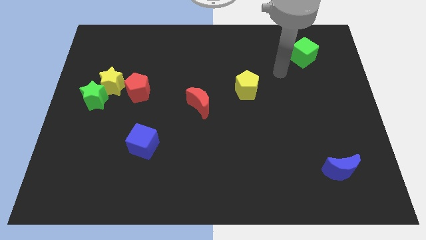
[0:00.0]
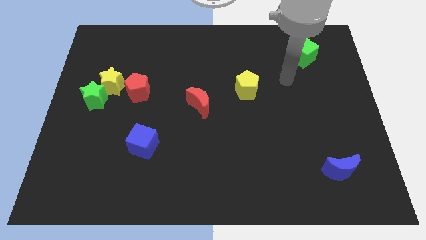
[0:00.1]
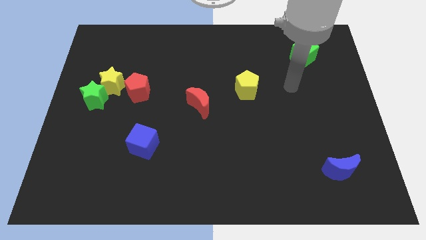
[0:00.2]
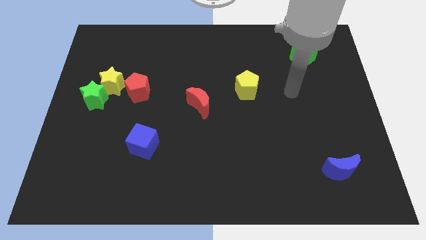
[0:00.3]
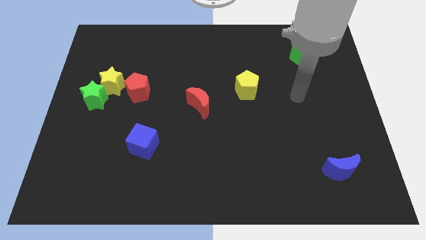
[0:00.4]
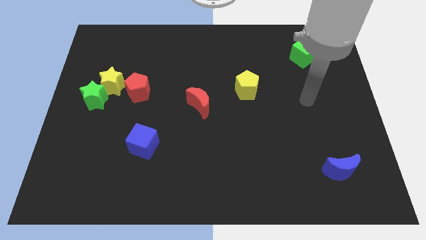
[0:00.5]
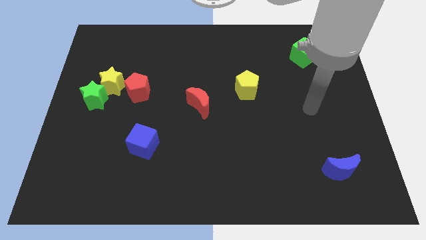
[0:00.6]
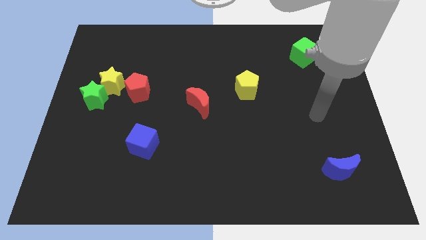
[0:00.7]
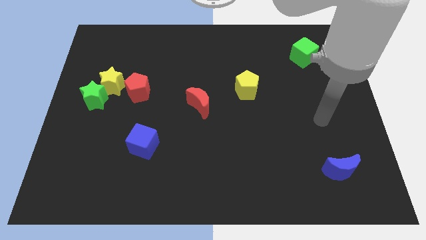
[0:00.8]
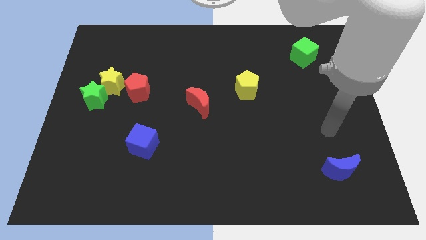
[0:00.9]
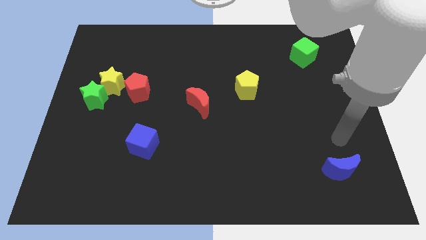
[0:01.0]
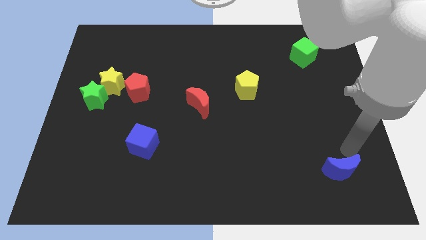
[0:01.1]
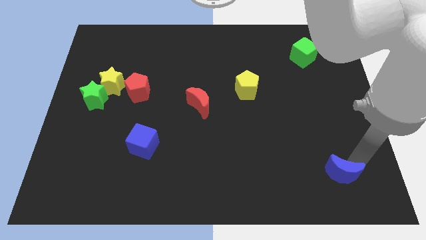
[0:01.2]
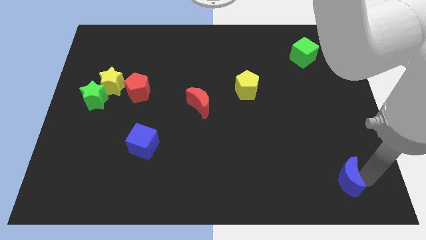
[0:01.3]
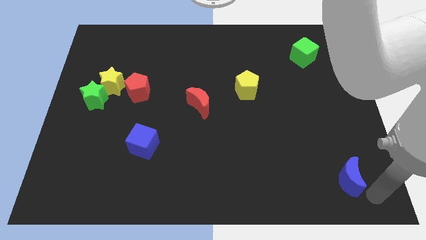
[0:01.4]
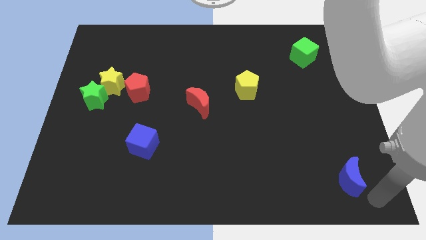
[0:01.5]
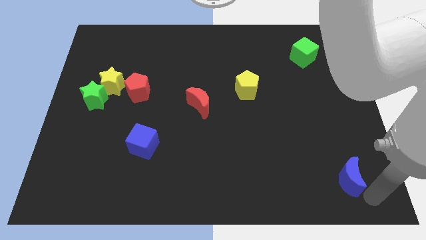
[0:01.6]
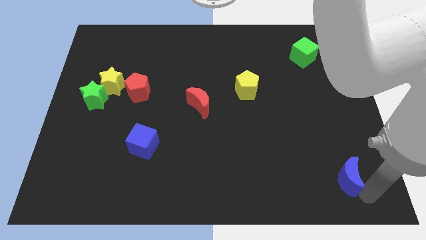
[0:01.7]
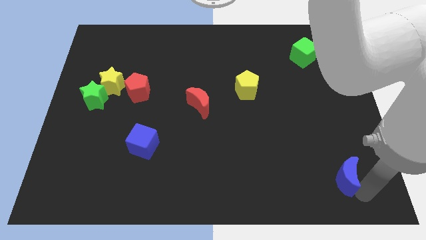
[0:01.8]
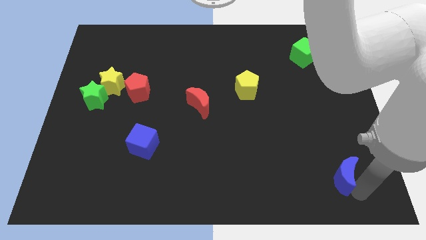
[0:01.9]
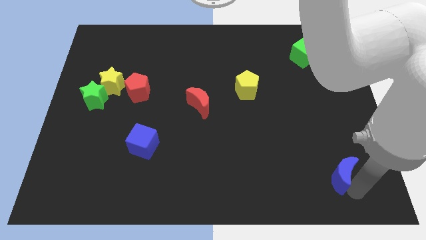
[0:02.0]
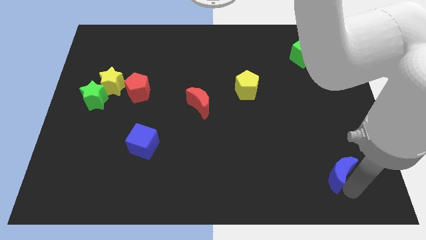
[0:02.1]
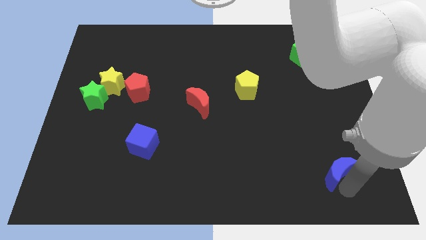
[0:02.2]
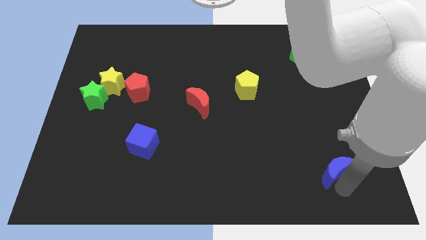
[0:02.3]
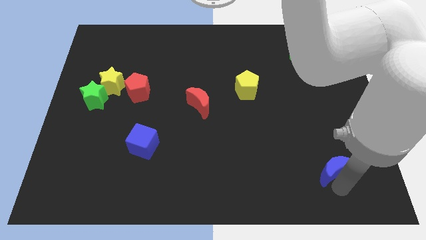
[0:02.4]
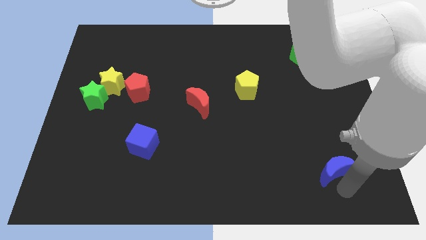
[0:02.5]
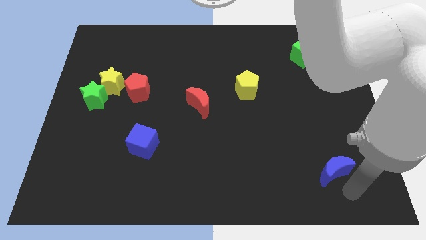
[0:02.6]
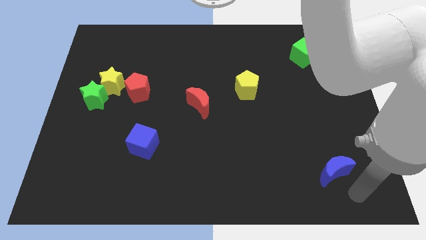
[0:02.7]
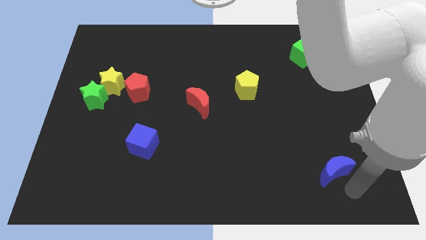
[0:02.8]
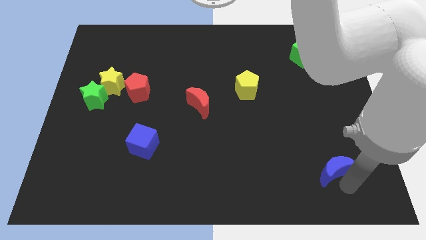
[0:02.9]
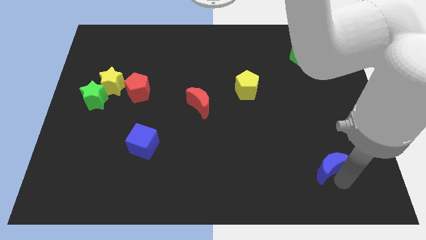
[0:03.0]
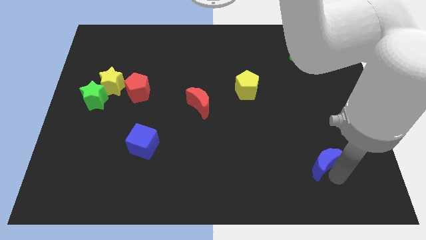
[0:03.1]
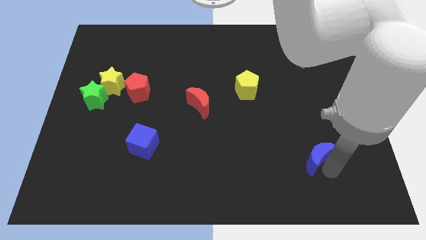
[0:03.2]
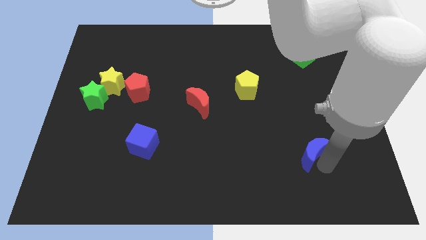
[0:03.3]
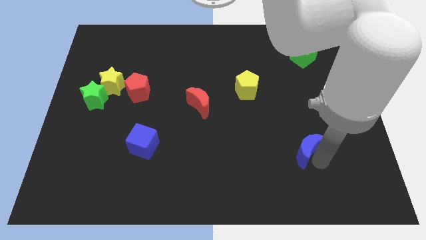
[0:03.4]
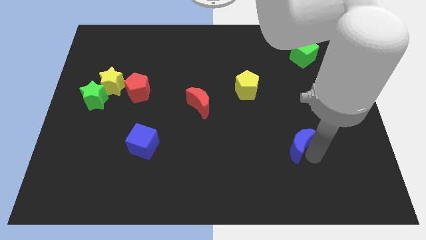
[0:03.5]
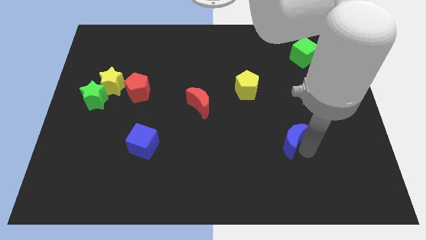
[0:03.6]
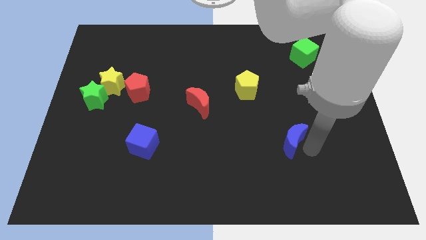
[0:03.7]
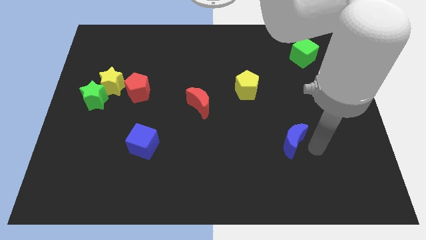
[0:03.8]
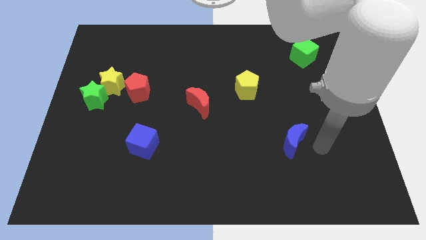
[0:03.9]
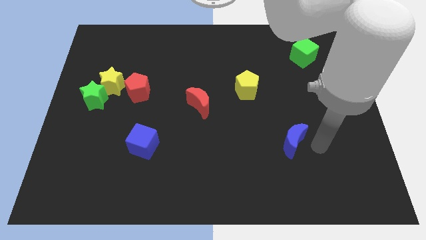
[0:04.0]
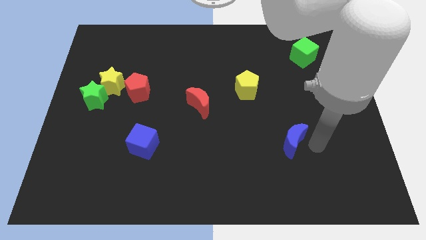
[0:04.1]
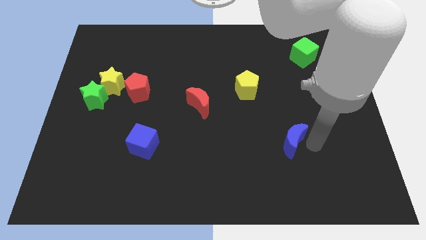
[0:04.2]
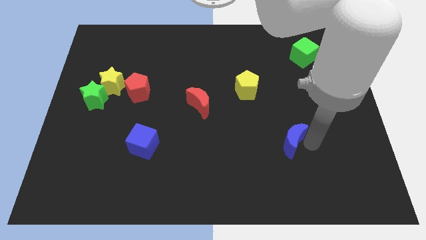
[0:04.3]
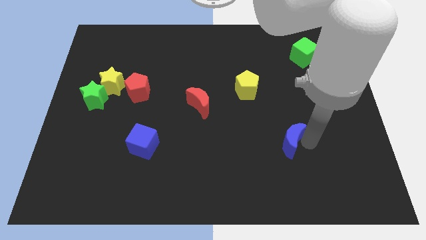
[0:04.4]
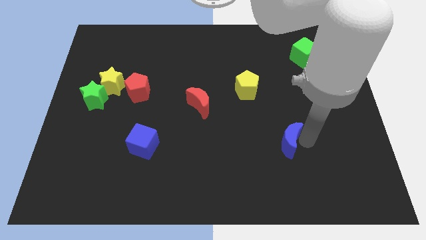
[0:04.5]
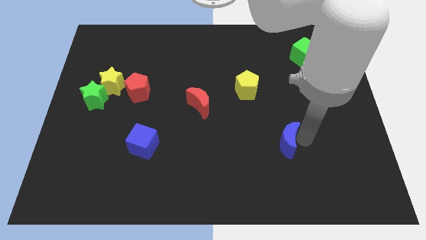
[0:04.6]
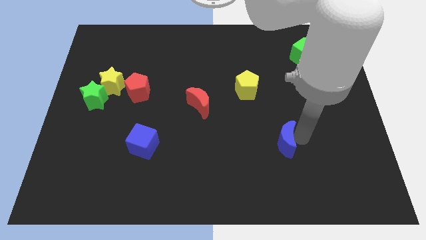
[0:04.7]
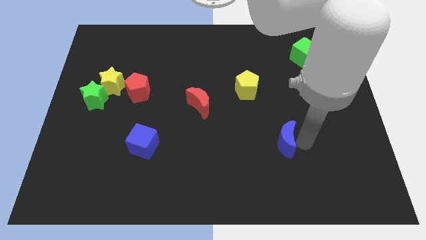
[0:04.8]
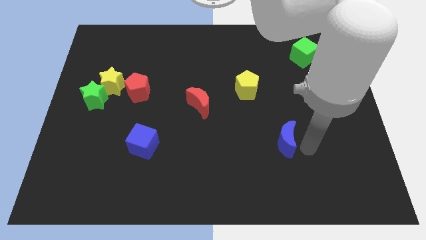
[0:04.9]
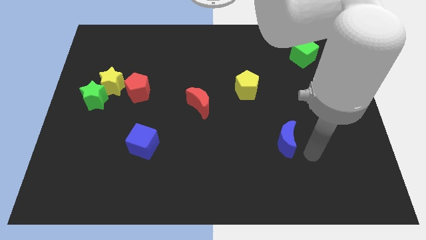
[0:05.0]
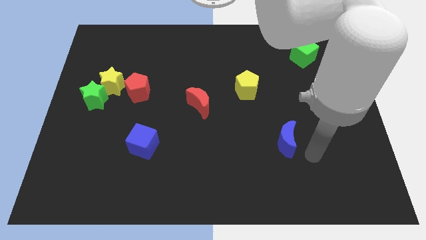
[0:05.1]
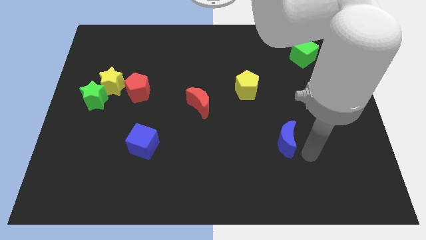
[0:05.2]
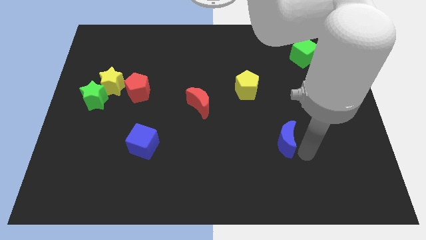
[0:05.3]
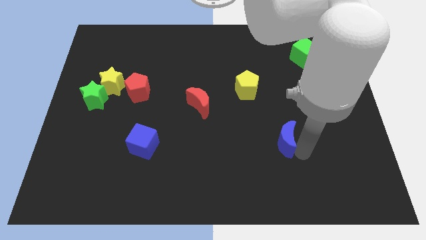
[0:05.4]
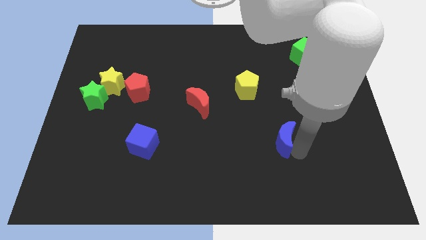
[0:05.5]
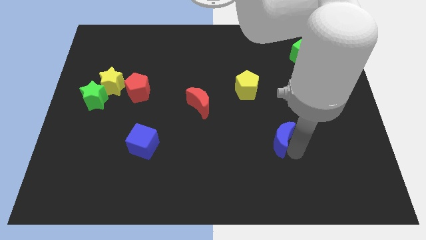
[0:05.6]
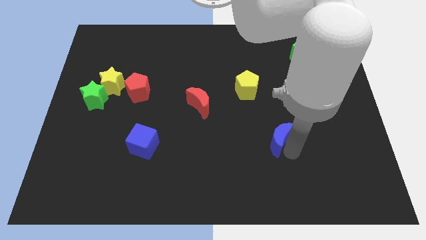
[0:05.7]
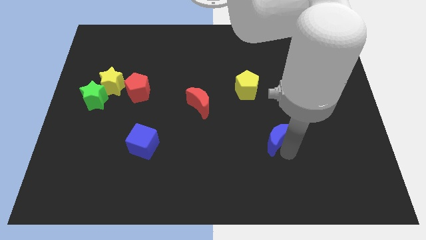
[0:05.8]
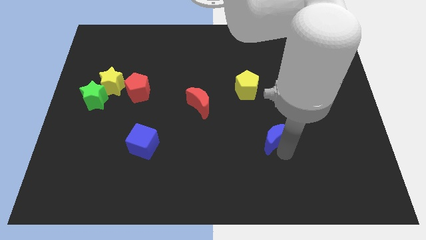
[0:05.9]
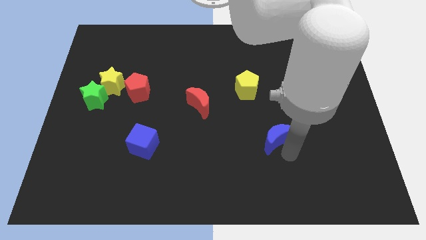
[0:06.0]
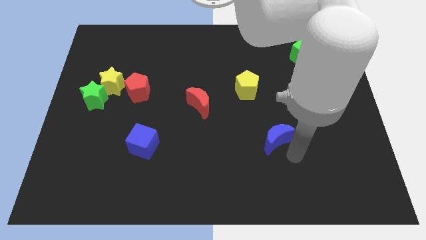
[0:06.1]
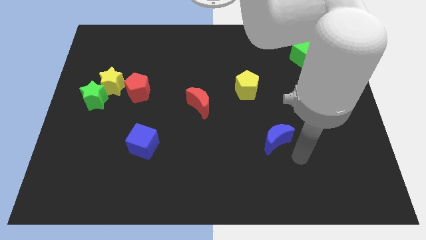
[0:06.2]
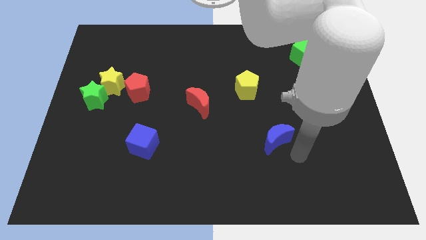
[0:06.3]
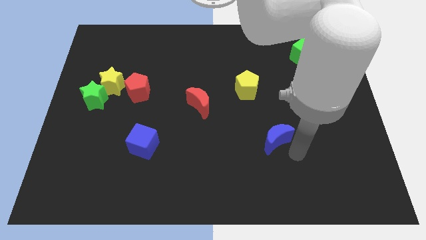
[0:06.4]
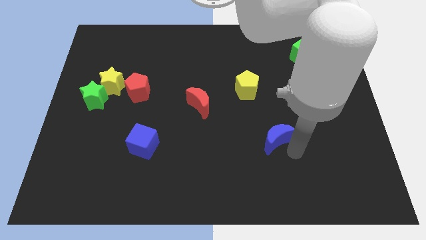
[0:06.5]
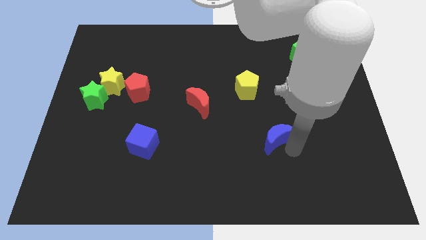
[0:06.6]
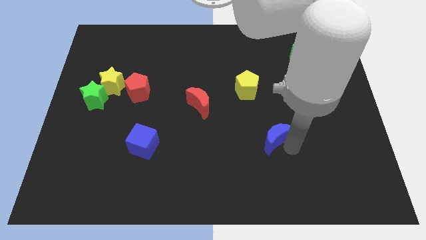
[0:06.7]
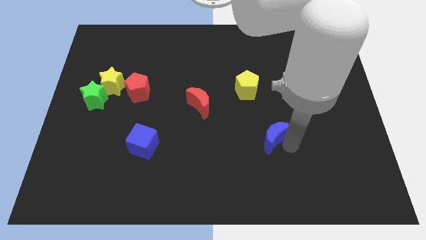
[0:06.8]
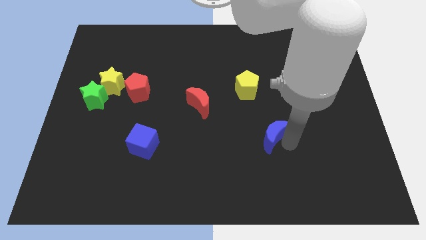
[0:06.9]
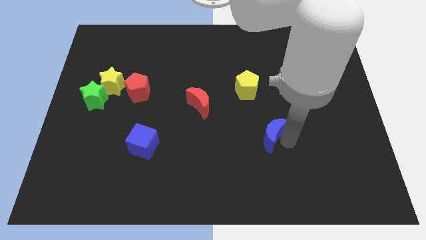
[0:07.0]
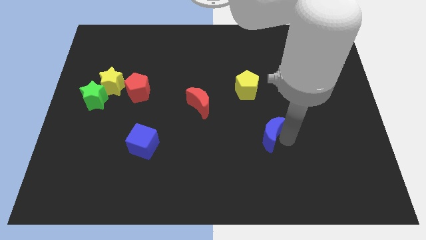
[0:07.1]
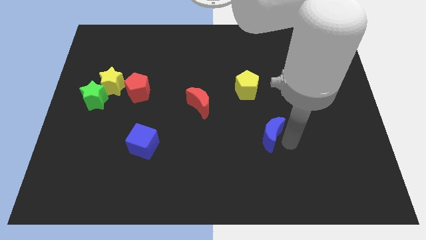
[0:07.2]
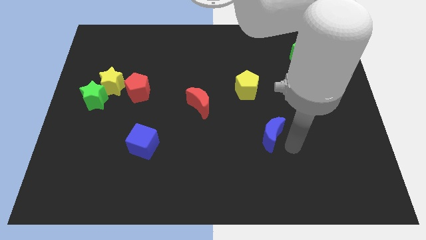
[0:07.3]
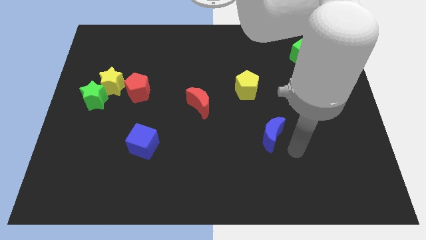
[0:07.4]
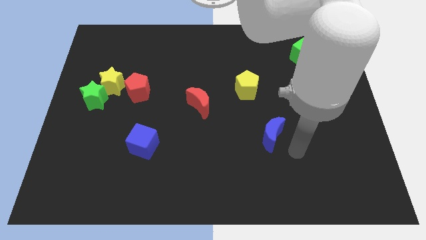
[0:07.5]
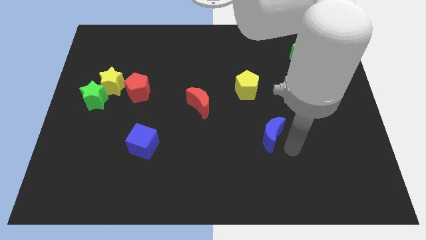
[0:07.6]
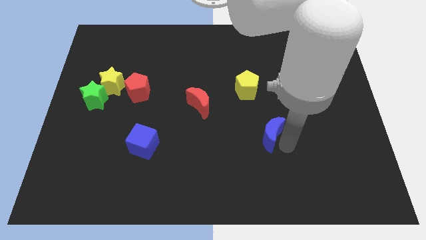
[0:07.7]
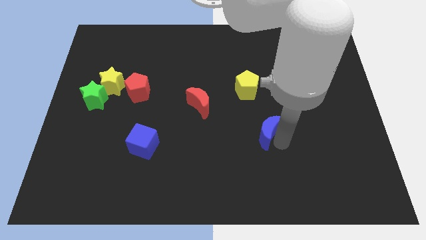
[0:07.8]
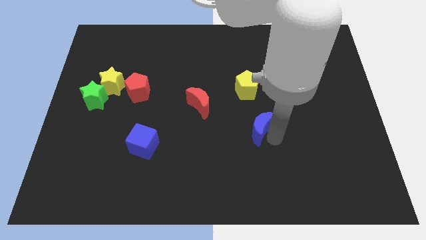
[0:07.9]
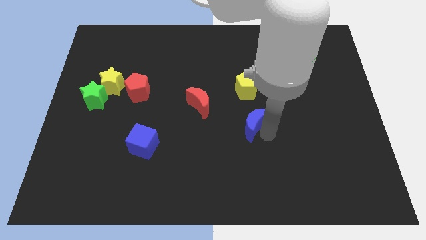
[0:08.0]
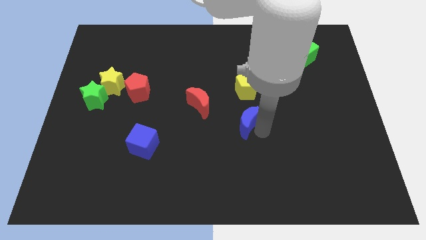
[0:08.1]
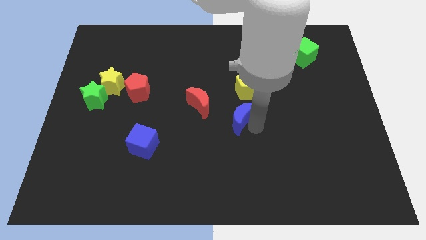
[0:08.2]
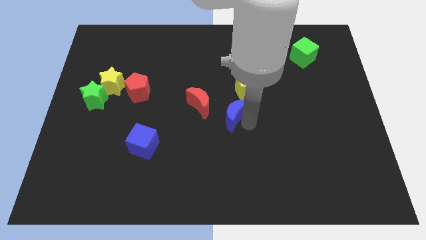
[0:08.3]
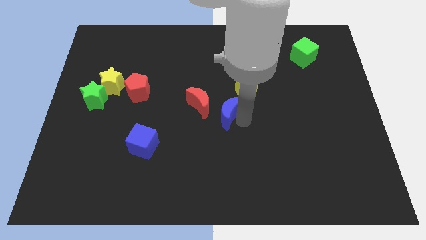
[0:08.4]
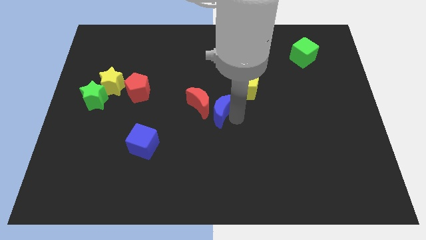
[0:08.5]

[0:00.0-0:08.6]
put the blue moon to the red moon
